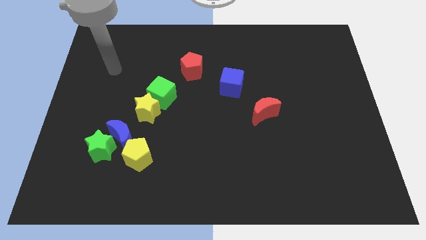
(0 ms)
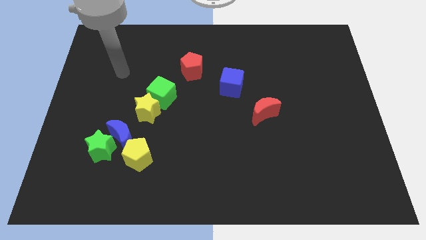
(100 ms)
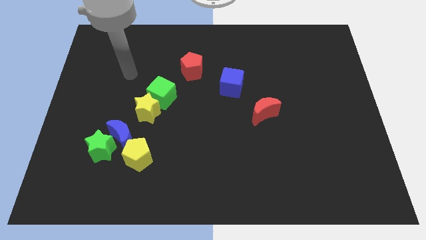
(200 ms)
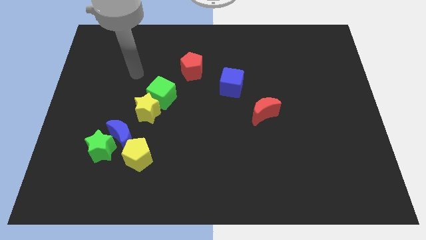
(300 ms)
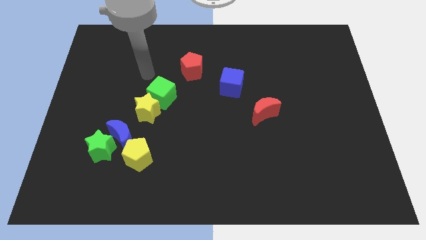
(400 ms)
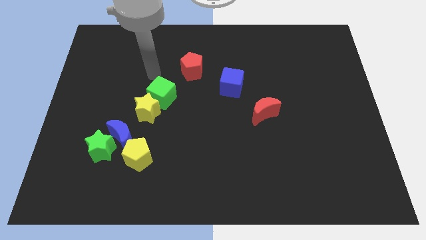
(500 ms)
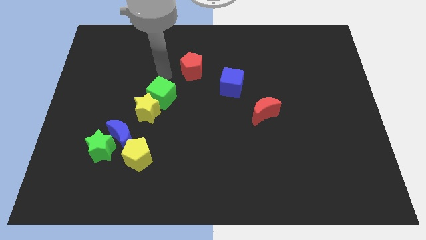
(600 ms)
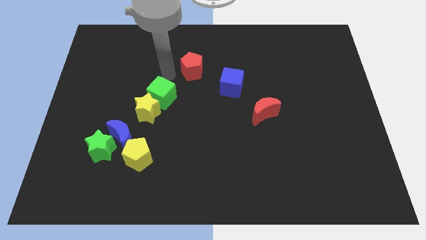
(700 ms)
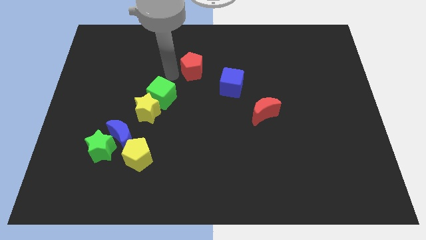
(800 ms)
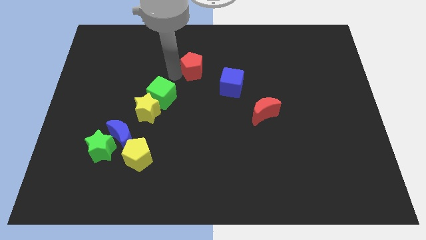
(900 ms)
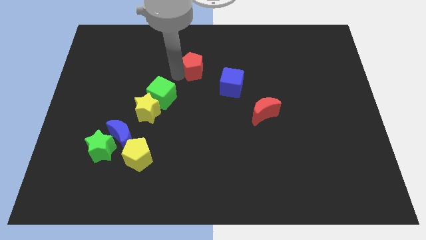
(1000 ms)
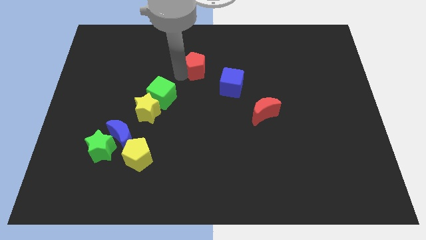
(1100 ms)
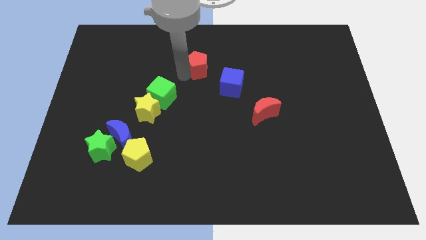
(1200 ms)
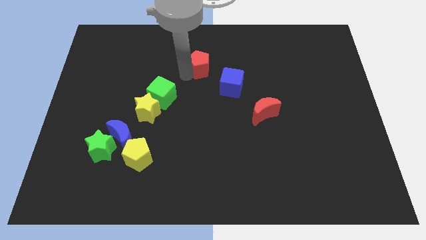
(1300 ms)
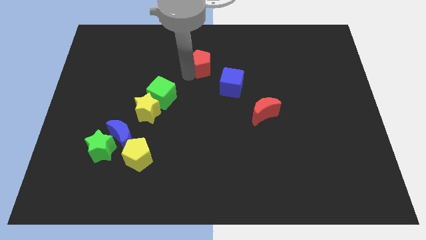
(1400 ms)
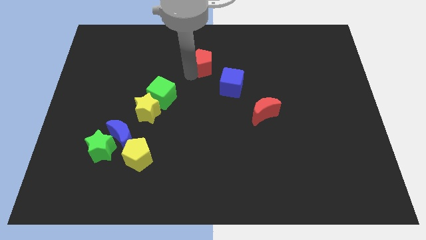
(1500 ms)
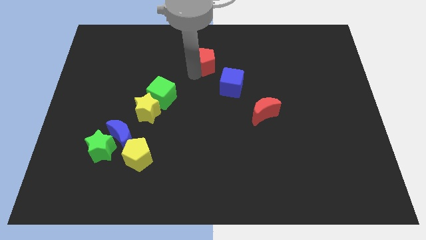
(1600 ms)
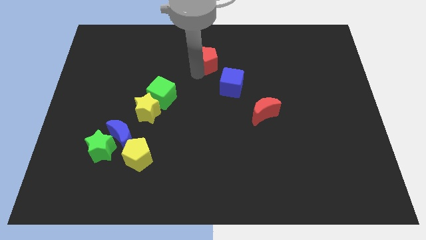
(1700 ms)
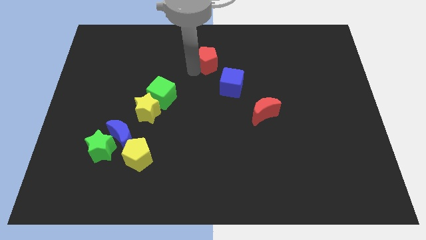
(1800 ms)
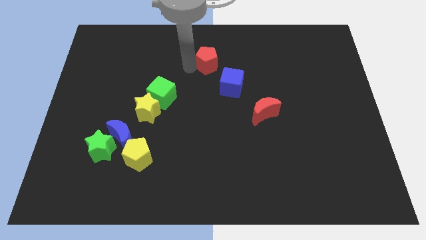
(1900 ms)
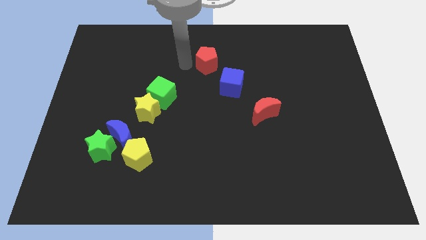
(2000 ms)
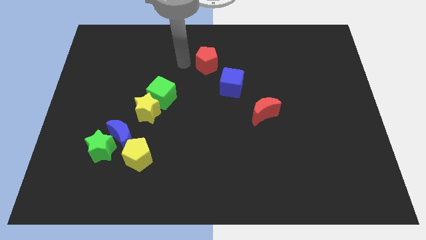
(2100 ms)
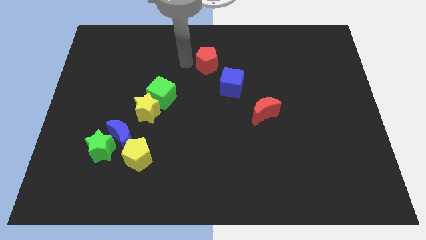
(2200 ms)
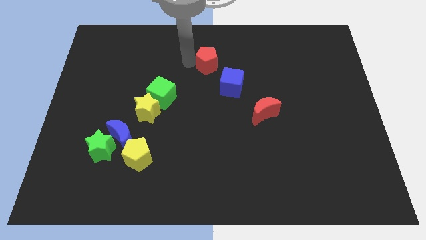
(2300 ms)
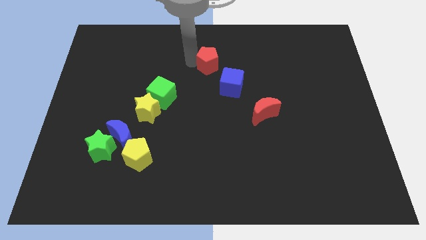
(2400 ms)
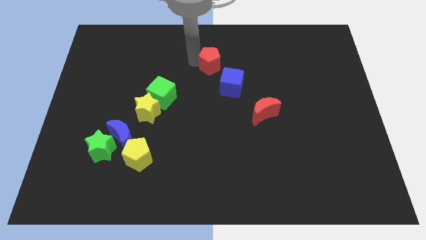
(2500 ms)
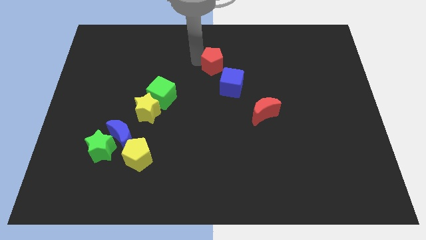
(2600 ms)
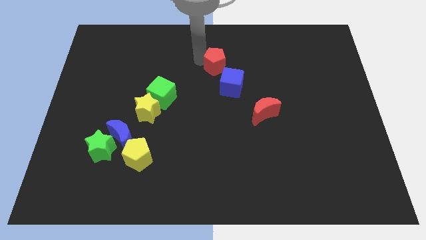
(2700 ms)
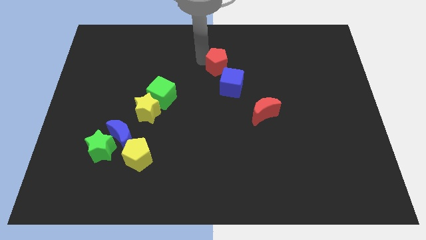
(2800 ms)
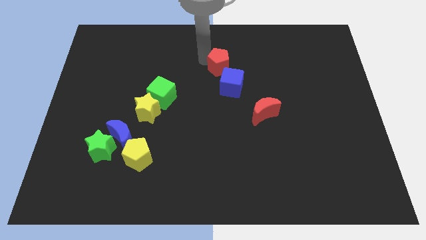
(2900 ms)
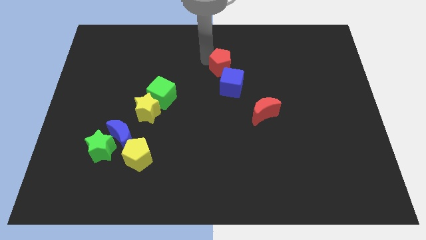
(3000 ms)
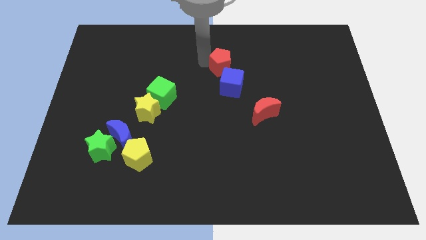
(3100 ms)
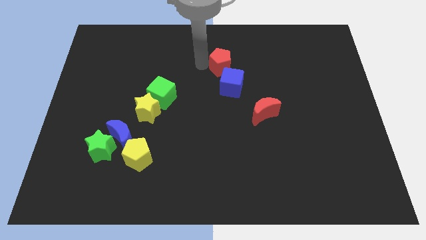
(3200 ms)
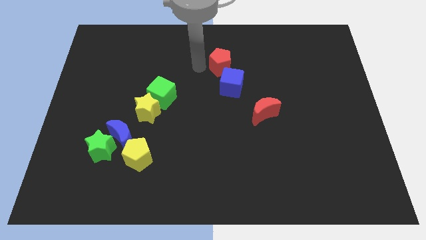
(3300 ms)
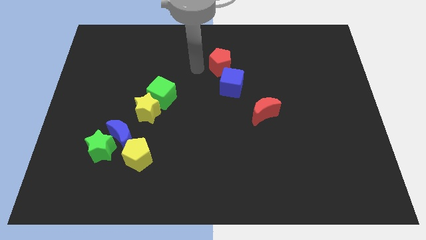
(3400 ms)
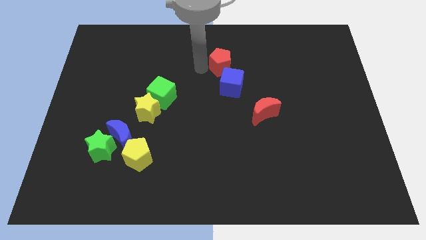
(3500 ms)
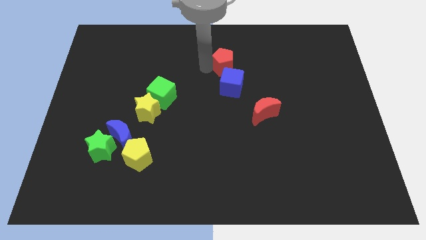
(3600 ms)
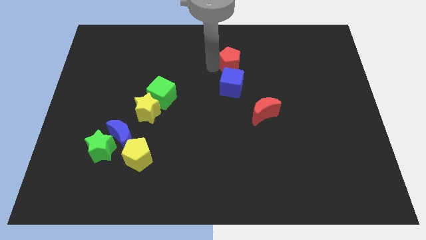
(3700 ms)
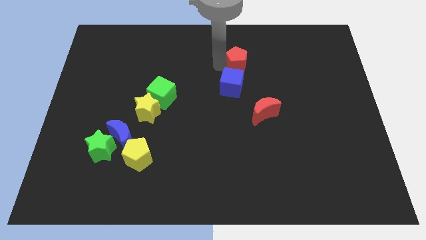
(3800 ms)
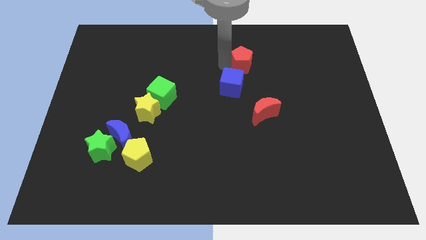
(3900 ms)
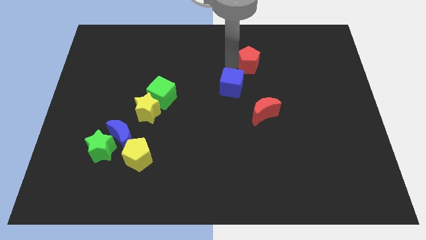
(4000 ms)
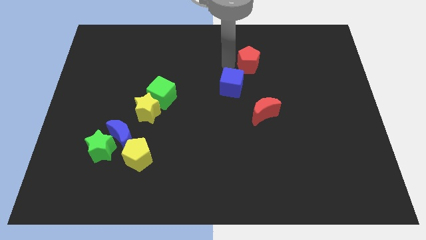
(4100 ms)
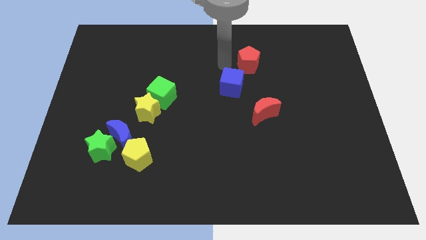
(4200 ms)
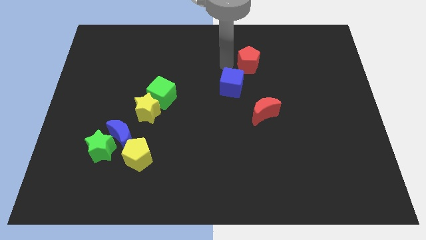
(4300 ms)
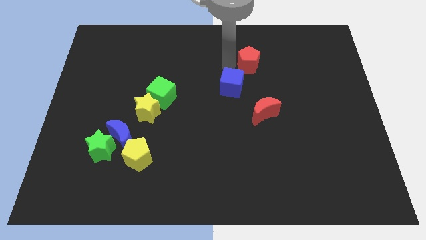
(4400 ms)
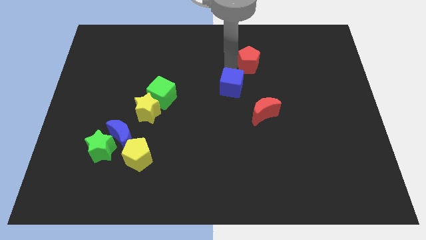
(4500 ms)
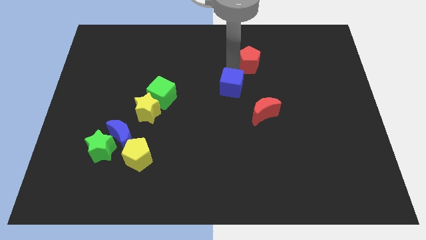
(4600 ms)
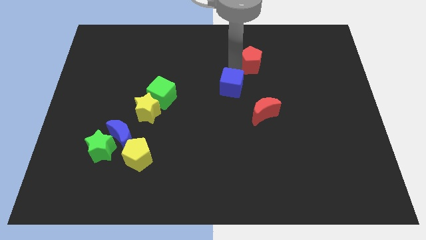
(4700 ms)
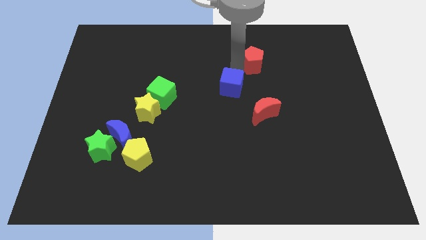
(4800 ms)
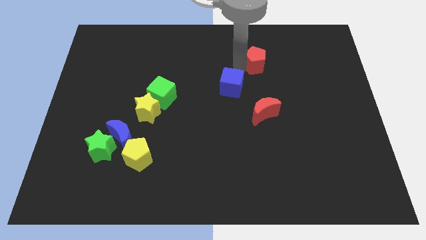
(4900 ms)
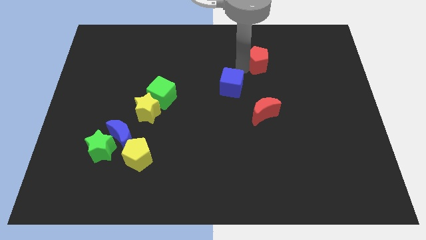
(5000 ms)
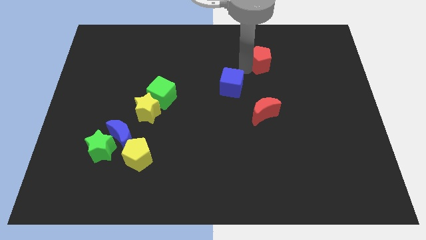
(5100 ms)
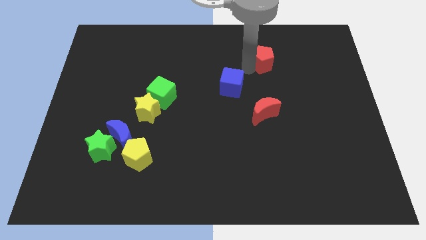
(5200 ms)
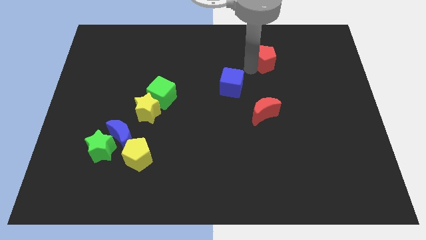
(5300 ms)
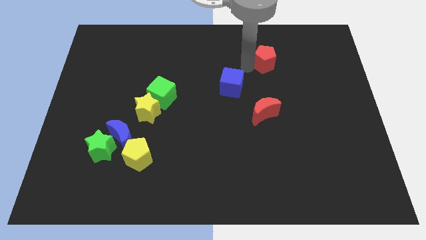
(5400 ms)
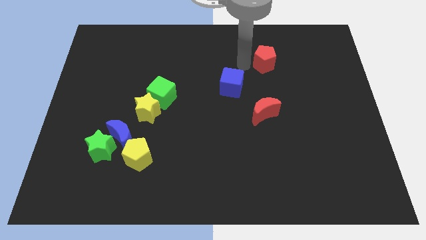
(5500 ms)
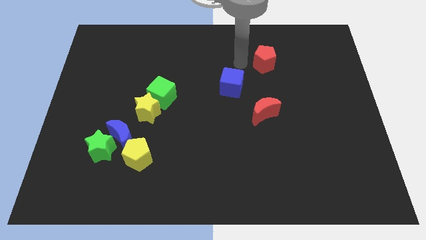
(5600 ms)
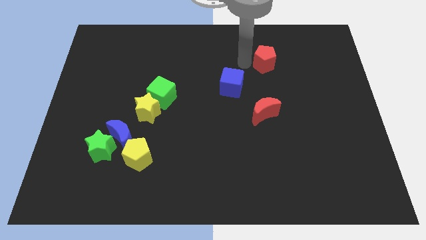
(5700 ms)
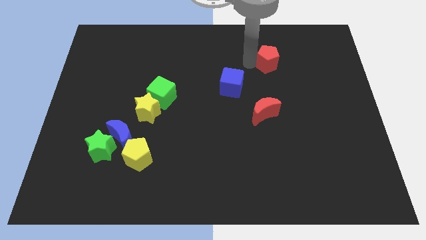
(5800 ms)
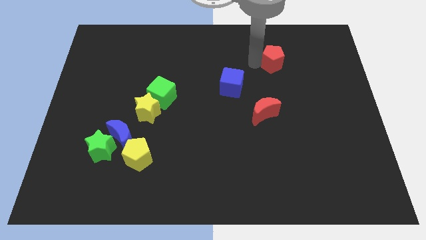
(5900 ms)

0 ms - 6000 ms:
move the red pentagon right

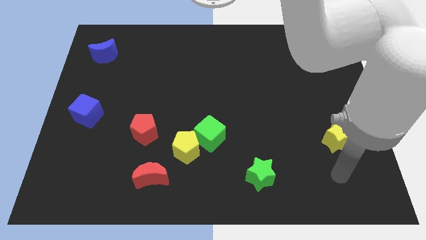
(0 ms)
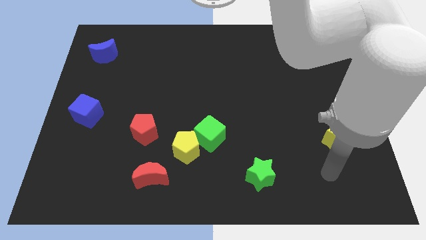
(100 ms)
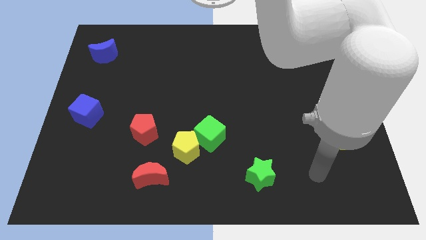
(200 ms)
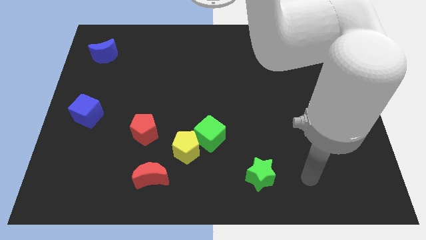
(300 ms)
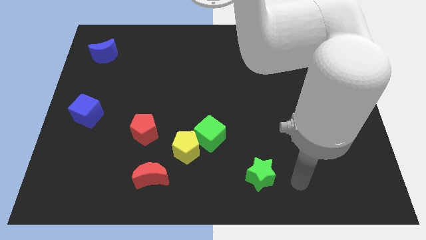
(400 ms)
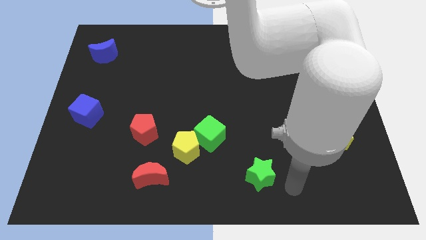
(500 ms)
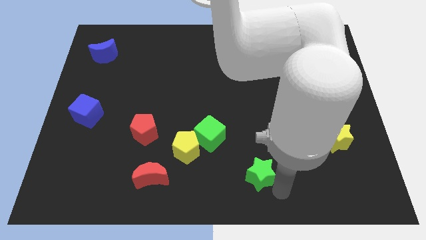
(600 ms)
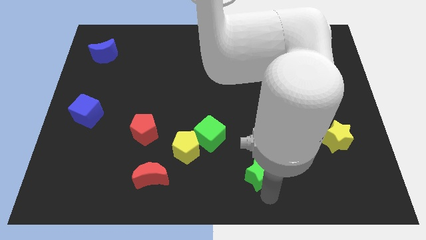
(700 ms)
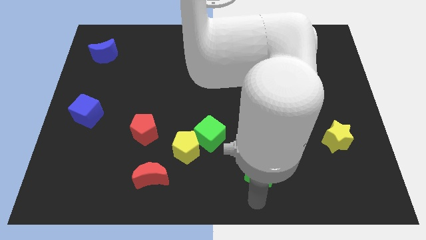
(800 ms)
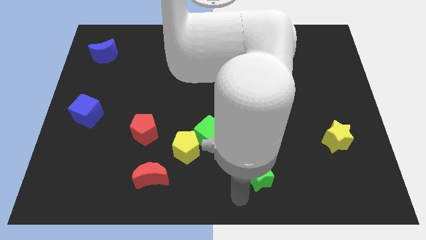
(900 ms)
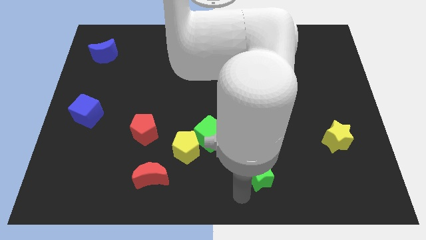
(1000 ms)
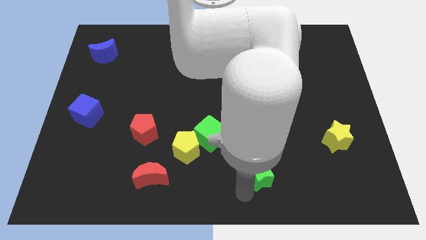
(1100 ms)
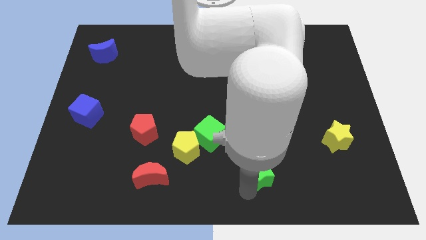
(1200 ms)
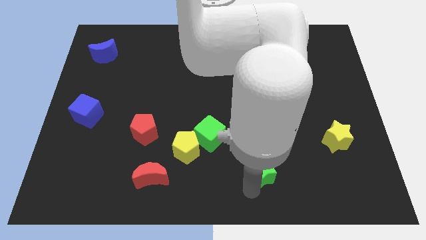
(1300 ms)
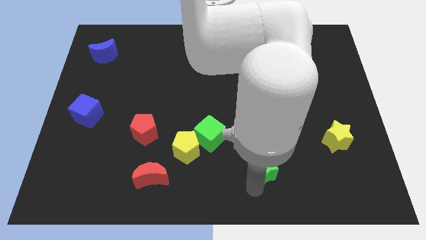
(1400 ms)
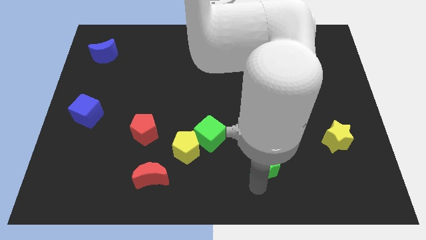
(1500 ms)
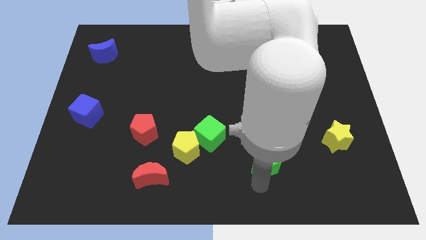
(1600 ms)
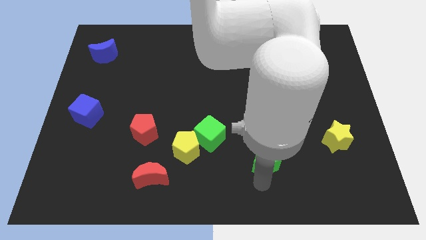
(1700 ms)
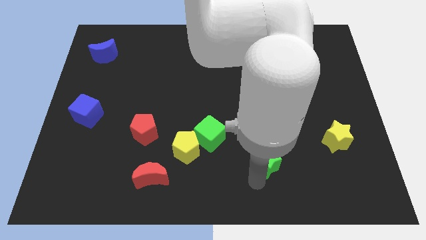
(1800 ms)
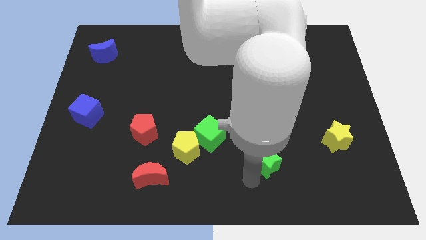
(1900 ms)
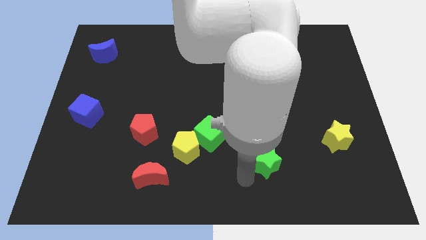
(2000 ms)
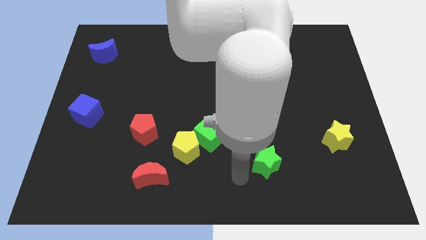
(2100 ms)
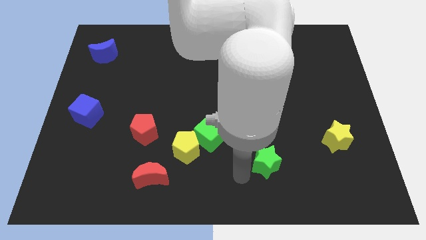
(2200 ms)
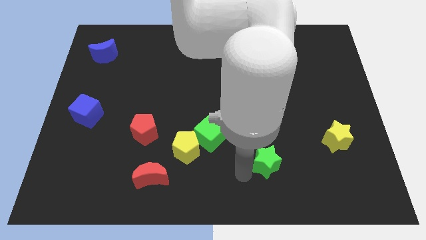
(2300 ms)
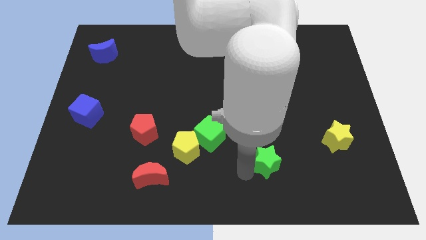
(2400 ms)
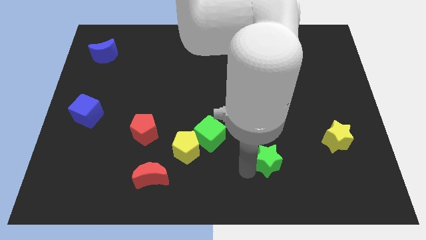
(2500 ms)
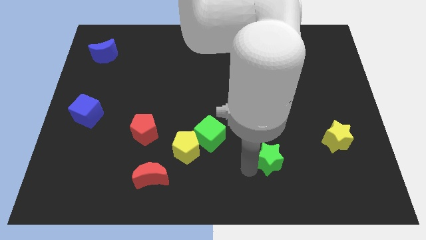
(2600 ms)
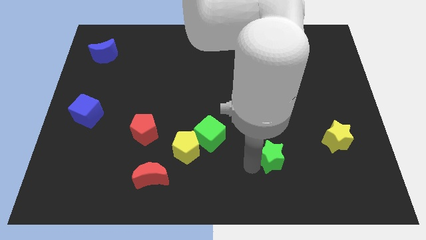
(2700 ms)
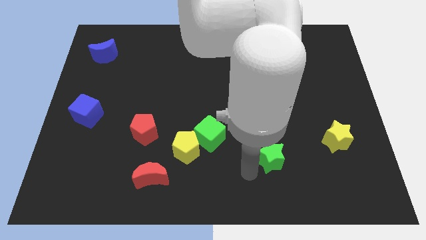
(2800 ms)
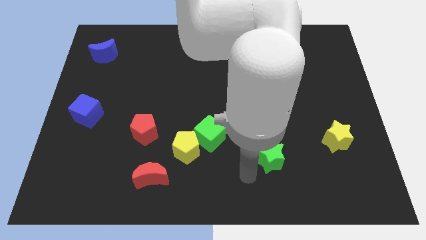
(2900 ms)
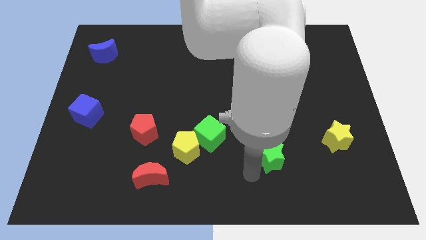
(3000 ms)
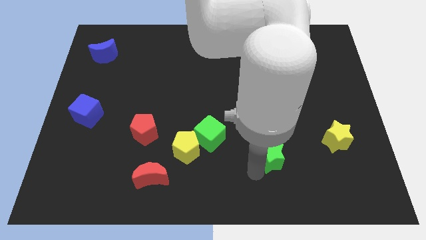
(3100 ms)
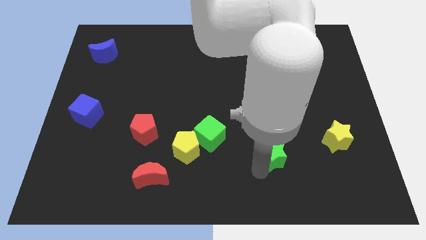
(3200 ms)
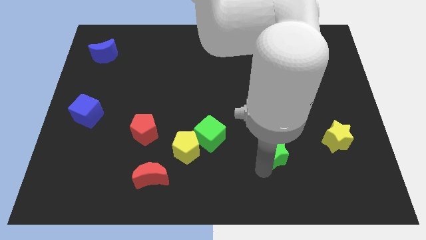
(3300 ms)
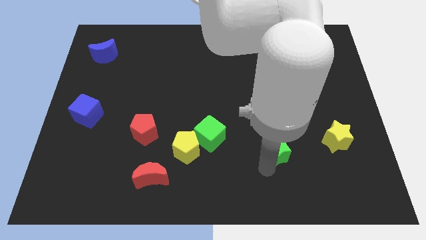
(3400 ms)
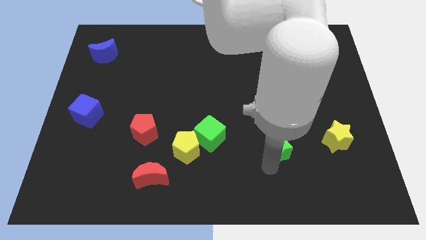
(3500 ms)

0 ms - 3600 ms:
move the green star upwards and then right a little bit
